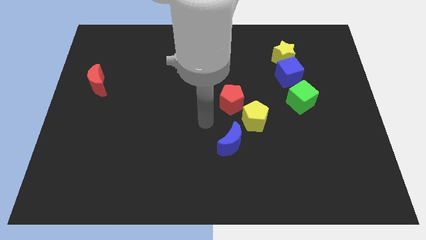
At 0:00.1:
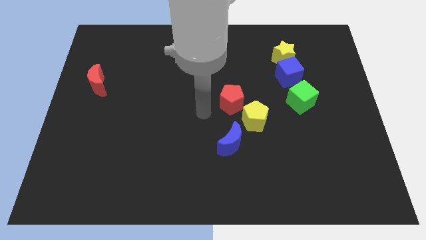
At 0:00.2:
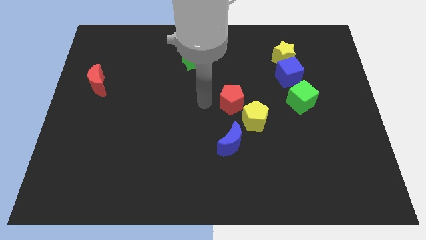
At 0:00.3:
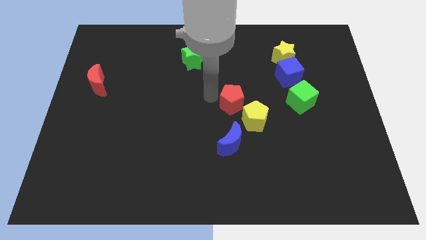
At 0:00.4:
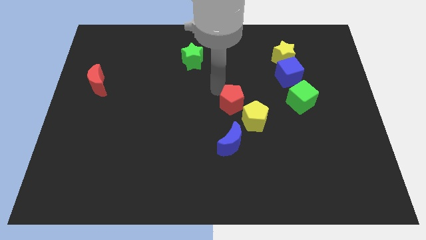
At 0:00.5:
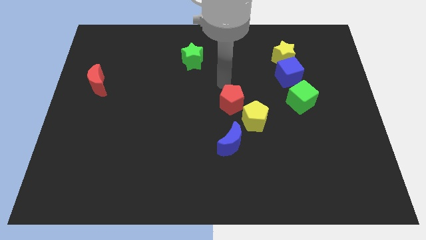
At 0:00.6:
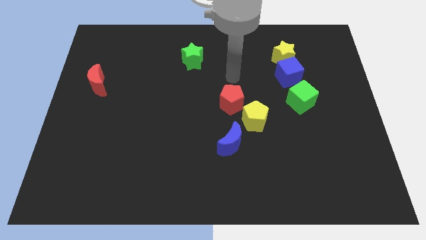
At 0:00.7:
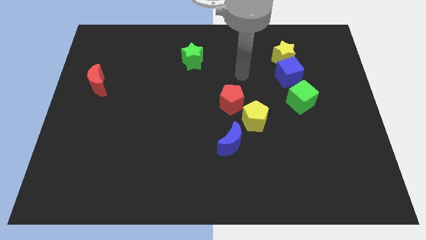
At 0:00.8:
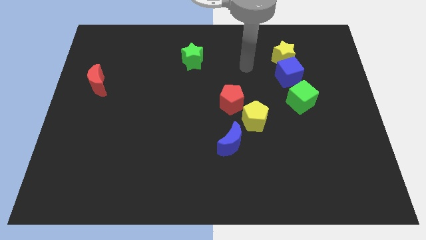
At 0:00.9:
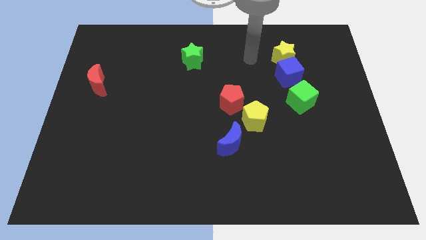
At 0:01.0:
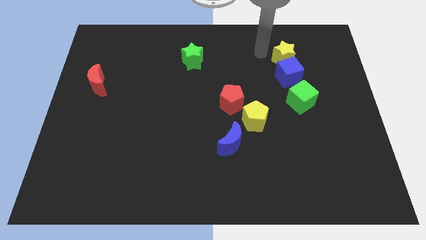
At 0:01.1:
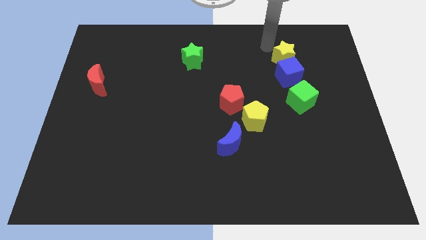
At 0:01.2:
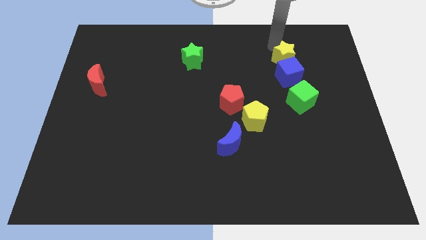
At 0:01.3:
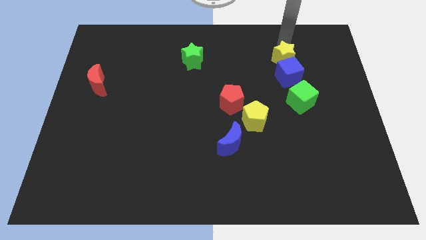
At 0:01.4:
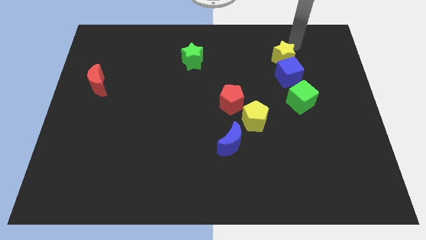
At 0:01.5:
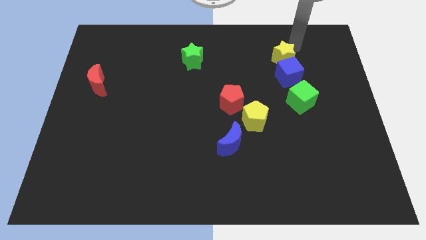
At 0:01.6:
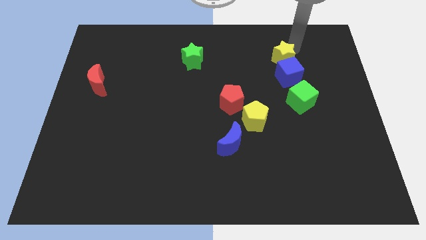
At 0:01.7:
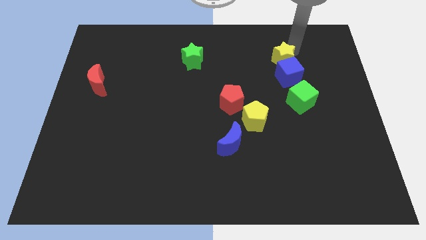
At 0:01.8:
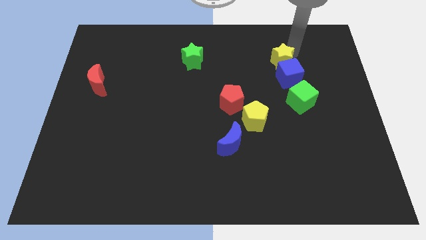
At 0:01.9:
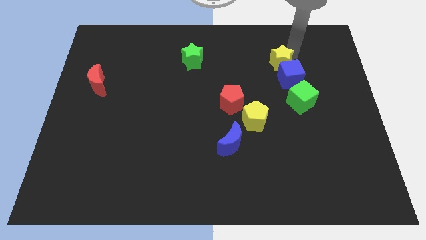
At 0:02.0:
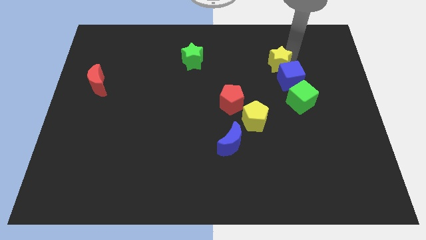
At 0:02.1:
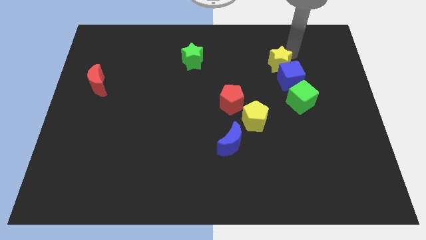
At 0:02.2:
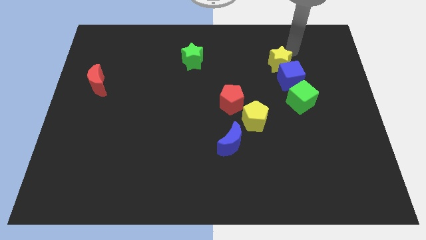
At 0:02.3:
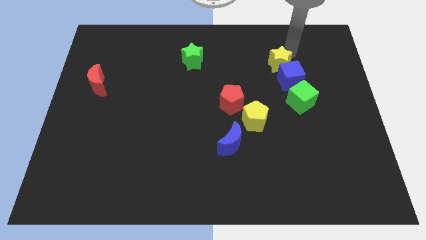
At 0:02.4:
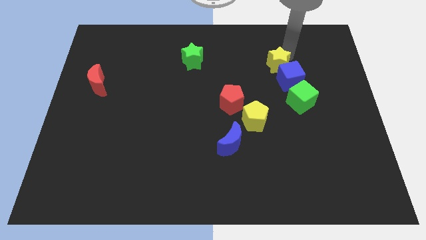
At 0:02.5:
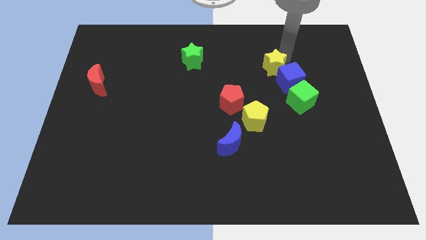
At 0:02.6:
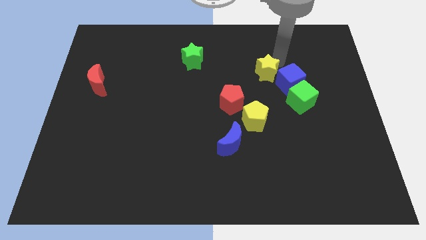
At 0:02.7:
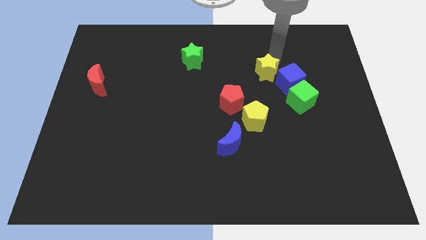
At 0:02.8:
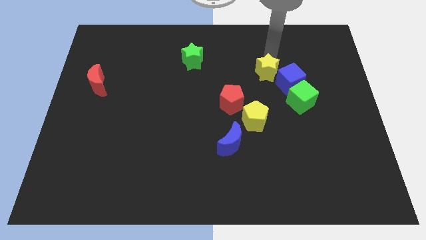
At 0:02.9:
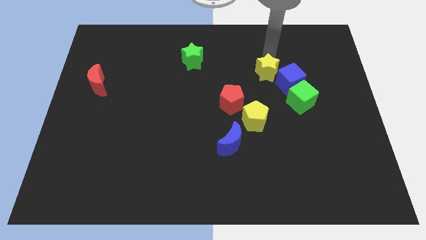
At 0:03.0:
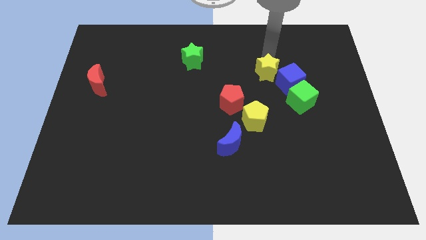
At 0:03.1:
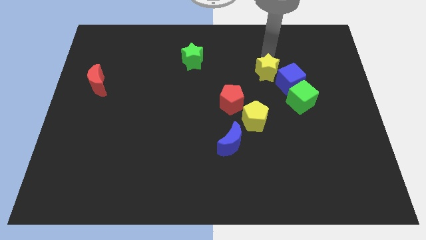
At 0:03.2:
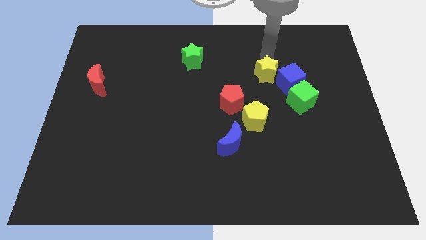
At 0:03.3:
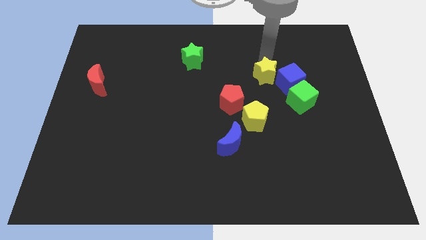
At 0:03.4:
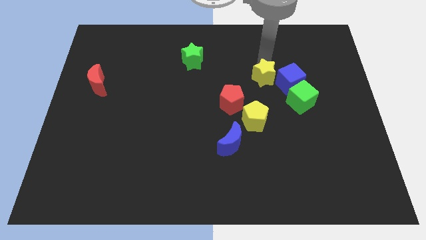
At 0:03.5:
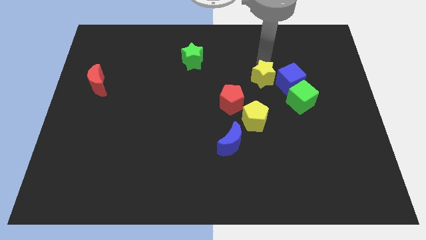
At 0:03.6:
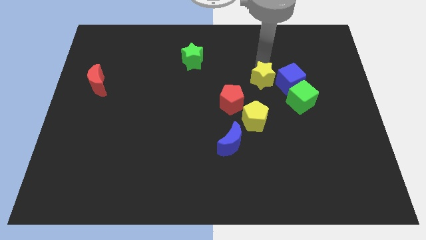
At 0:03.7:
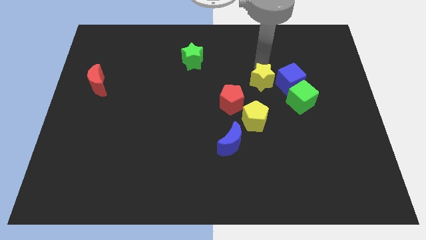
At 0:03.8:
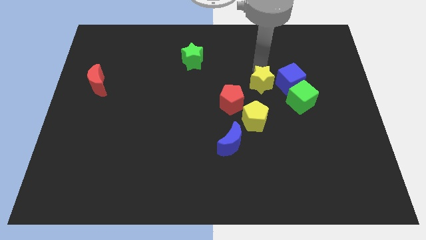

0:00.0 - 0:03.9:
move the yellow star a little bit down

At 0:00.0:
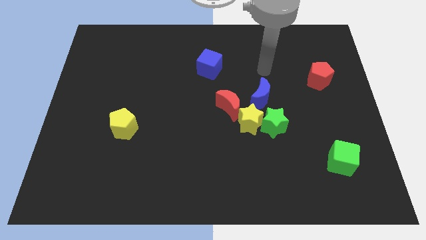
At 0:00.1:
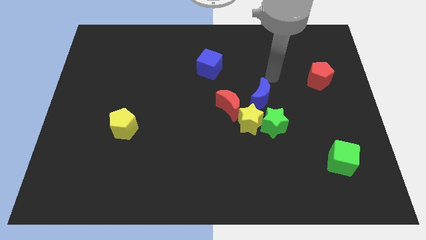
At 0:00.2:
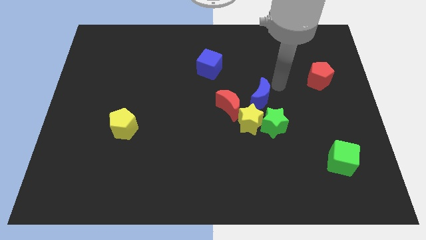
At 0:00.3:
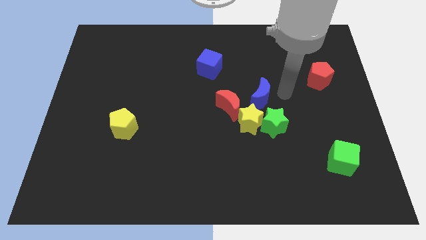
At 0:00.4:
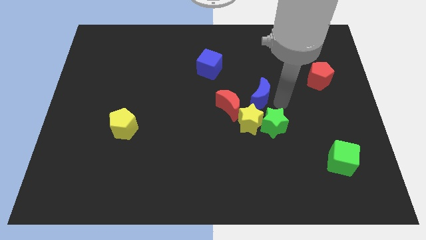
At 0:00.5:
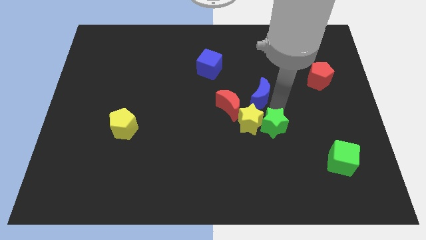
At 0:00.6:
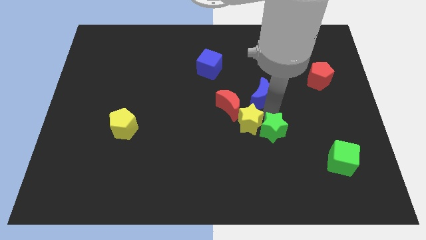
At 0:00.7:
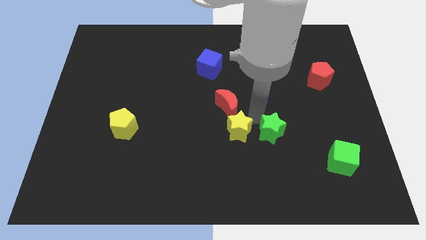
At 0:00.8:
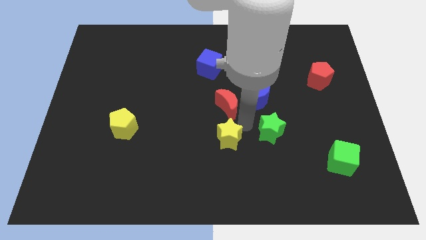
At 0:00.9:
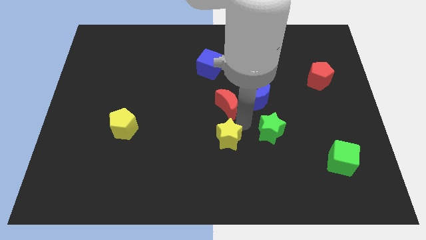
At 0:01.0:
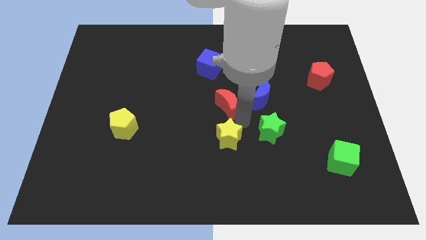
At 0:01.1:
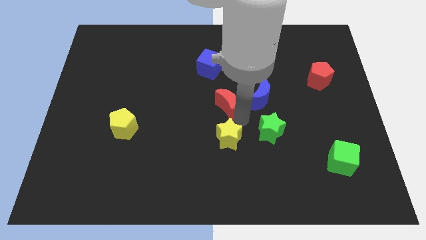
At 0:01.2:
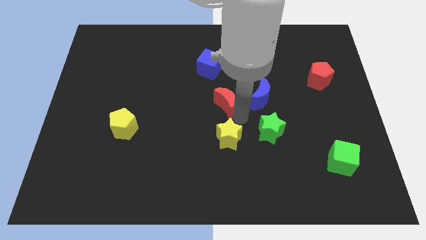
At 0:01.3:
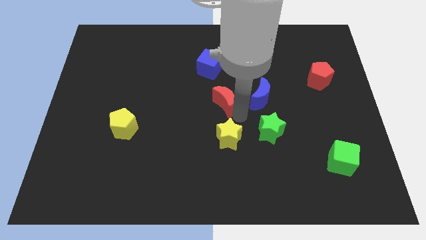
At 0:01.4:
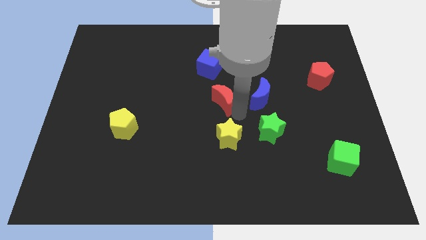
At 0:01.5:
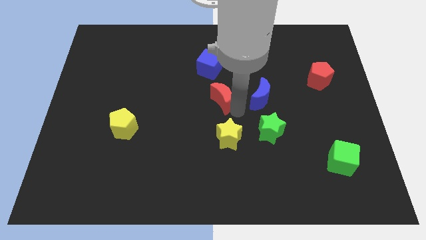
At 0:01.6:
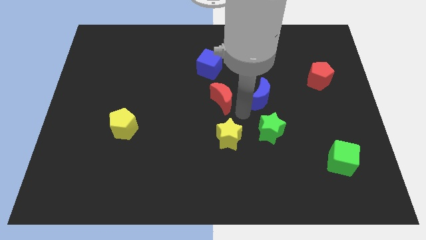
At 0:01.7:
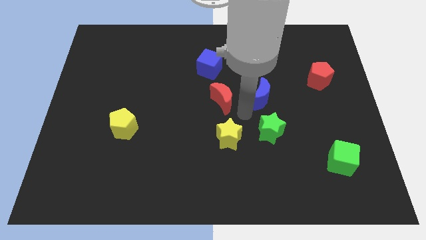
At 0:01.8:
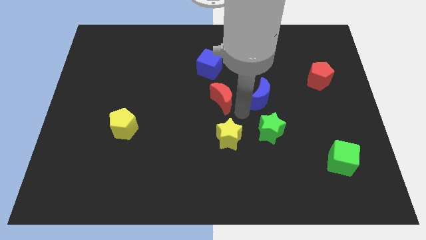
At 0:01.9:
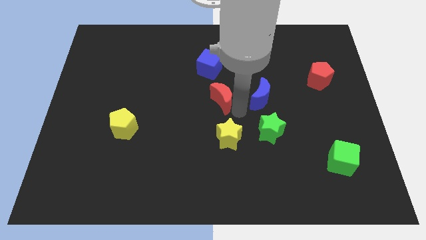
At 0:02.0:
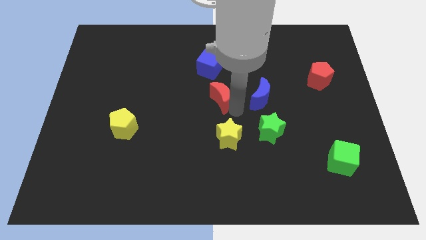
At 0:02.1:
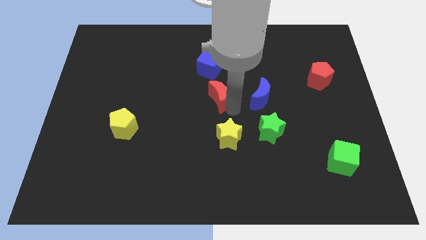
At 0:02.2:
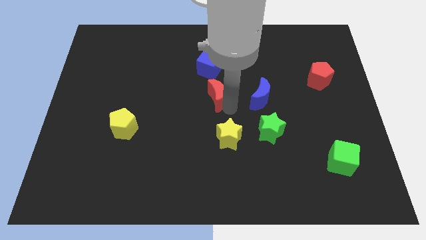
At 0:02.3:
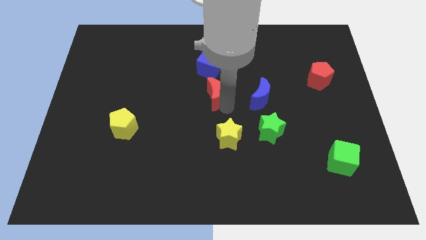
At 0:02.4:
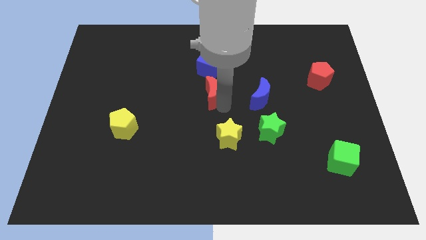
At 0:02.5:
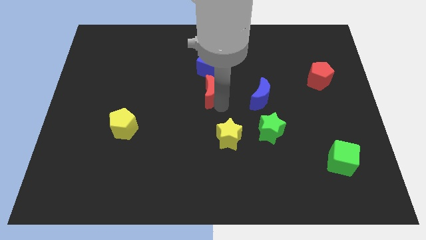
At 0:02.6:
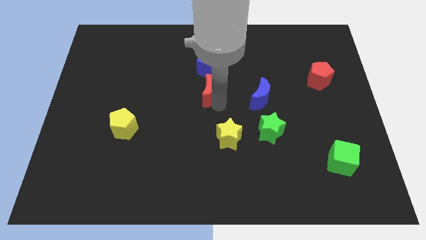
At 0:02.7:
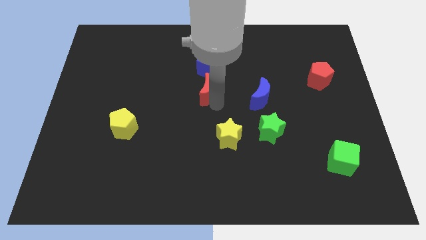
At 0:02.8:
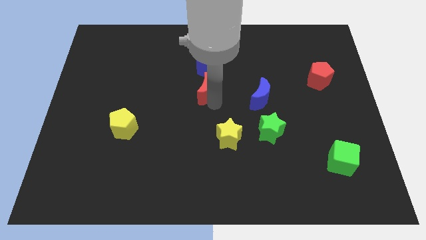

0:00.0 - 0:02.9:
slide the red moon a little diagonally up and to the left

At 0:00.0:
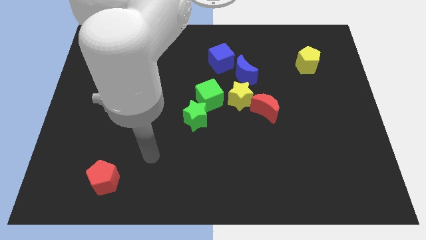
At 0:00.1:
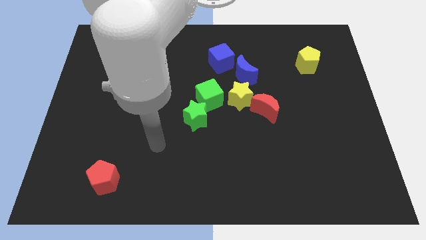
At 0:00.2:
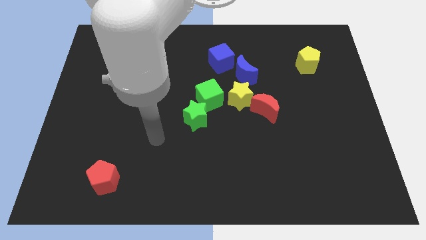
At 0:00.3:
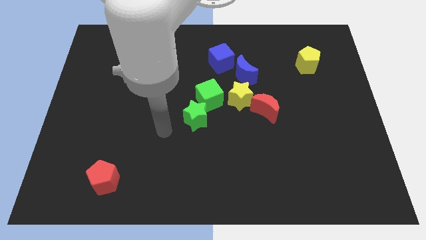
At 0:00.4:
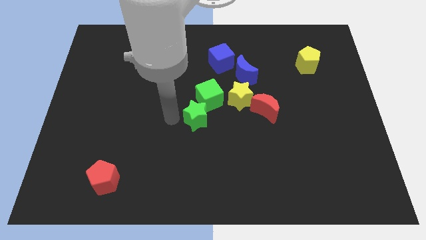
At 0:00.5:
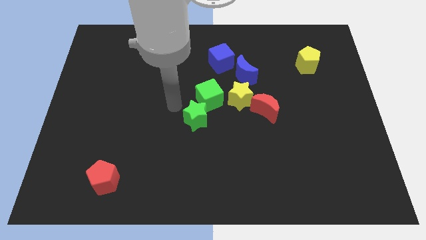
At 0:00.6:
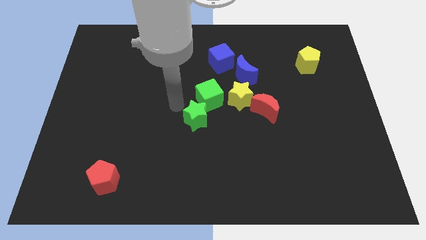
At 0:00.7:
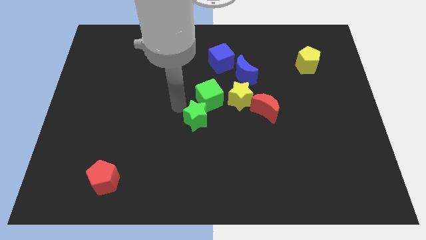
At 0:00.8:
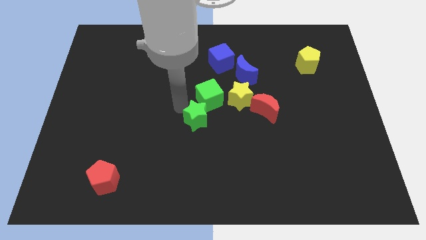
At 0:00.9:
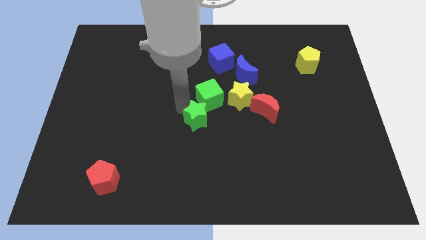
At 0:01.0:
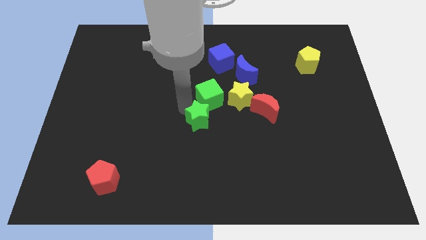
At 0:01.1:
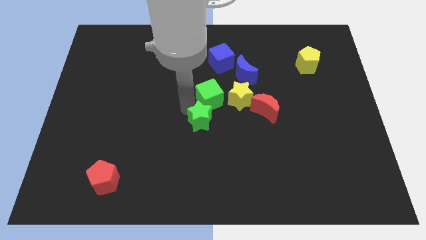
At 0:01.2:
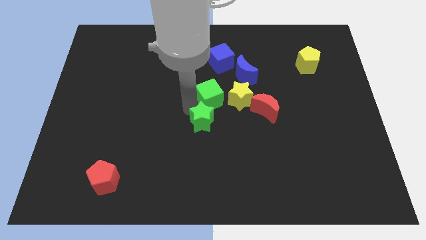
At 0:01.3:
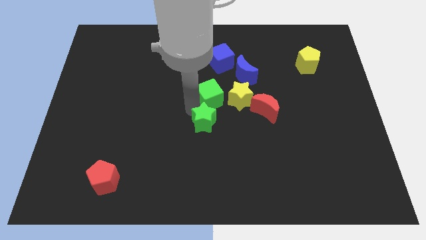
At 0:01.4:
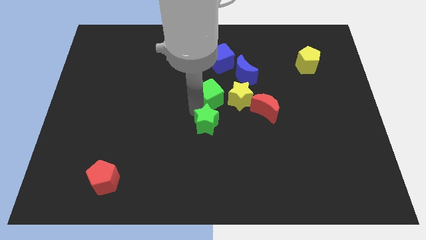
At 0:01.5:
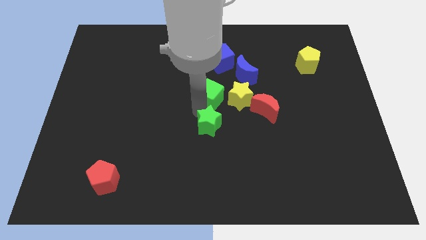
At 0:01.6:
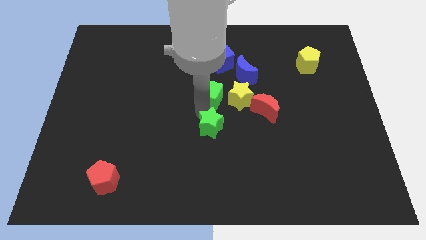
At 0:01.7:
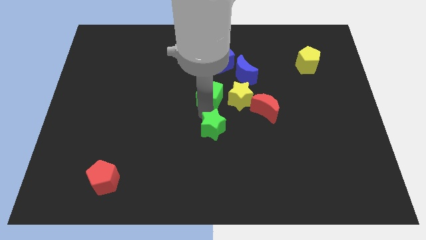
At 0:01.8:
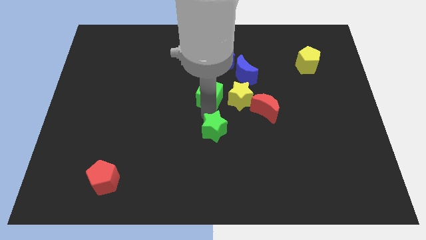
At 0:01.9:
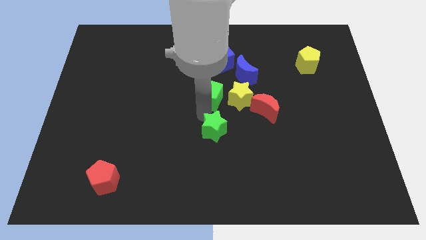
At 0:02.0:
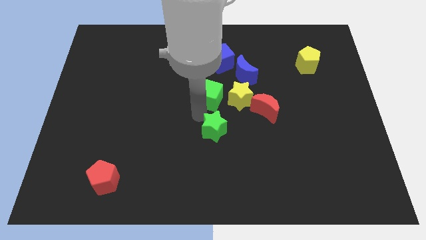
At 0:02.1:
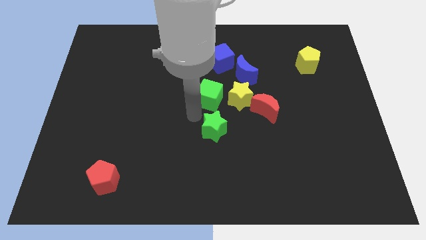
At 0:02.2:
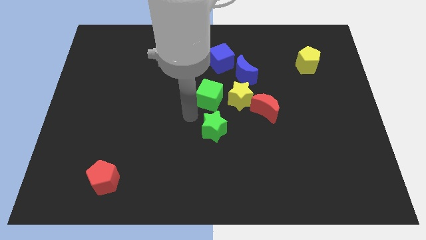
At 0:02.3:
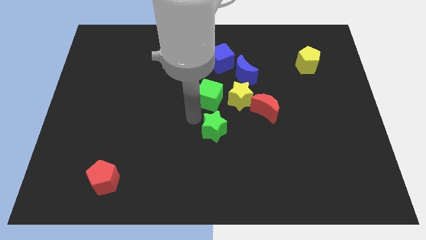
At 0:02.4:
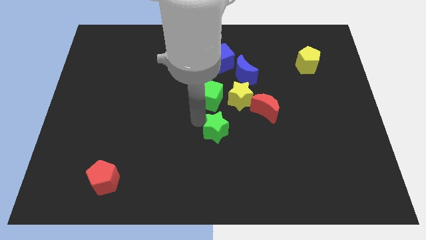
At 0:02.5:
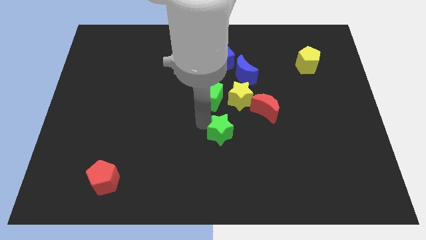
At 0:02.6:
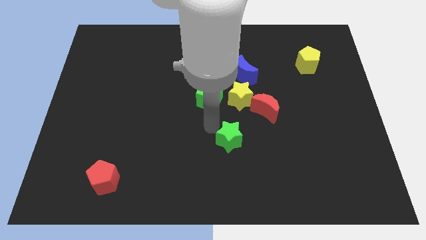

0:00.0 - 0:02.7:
push the green star a little bit down and right diagonally
